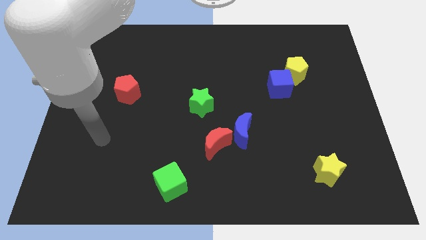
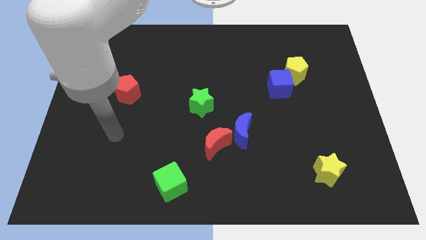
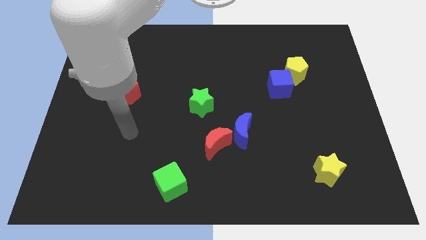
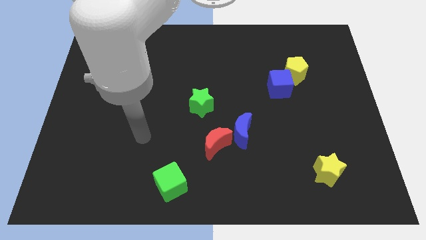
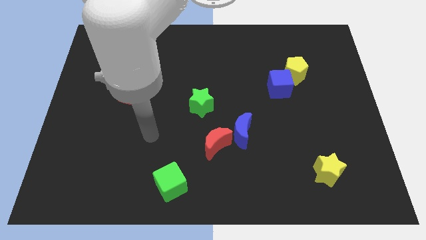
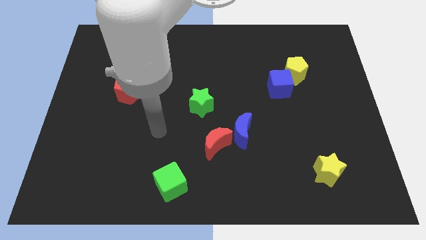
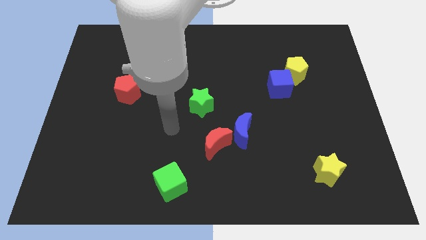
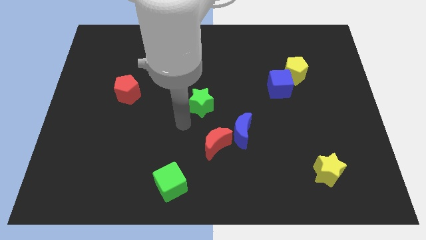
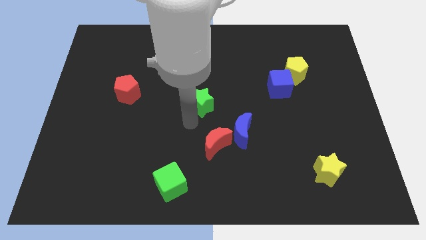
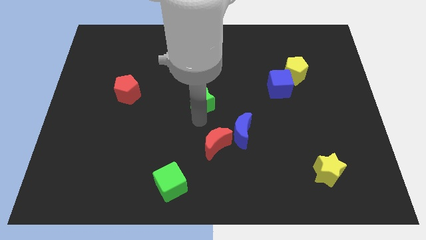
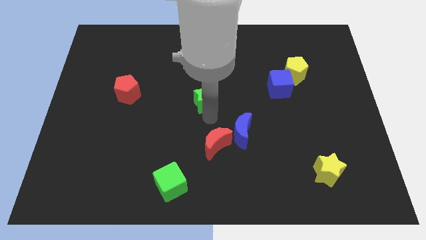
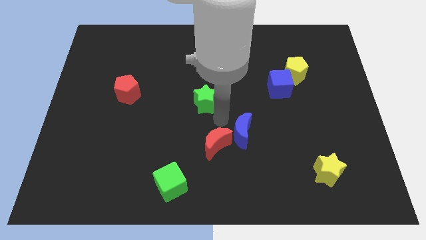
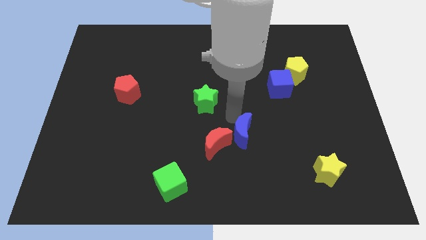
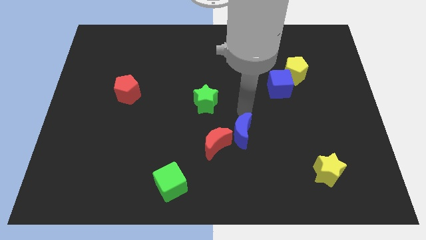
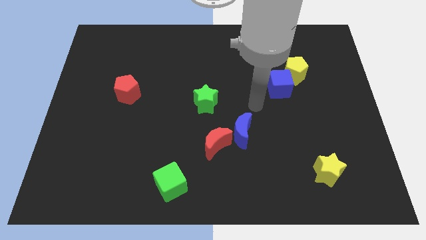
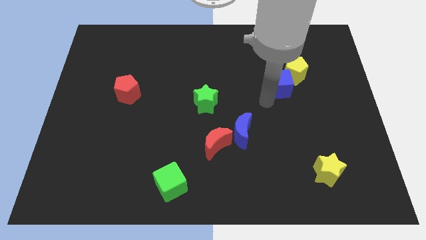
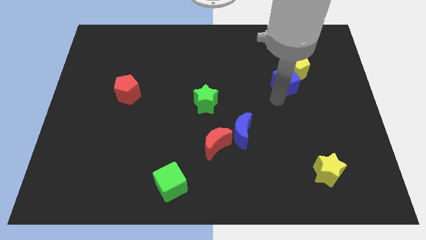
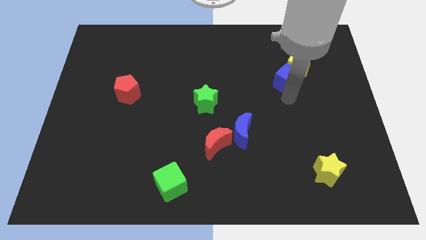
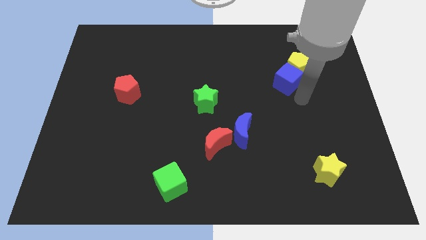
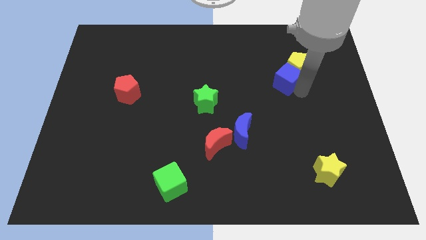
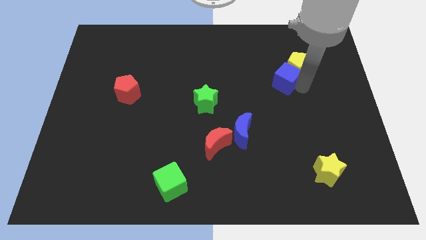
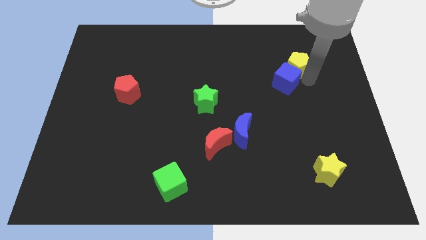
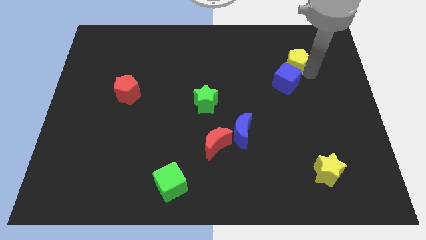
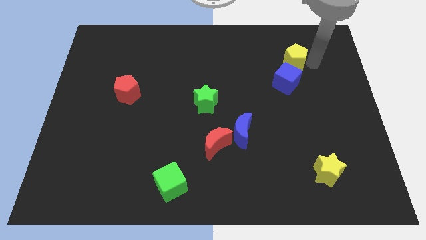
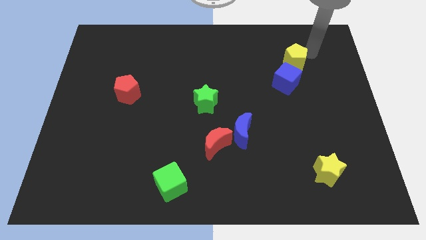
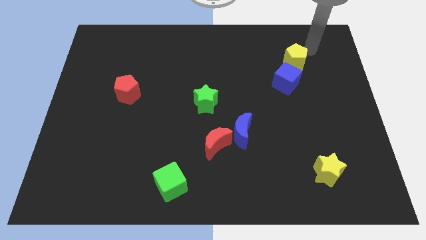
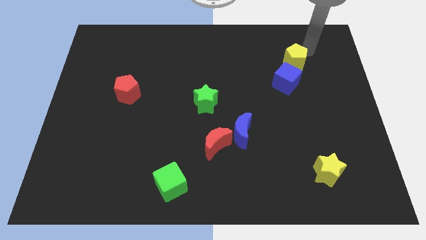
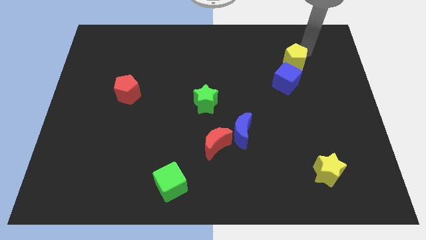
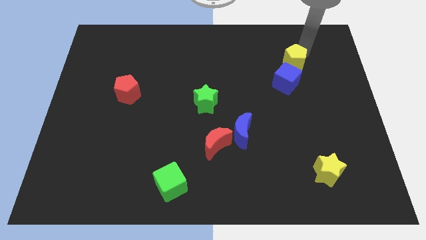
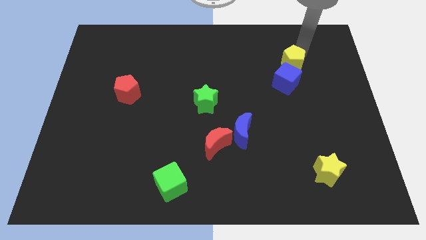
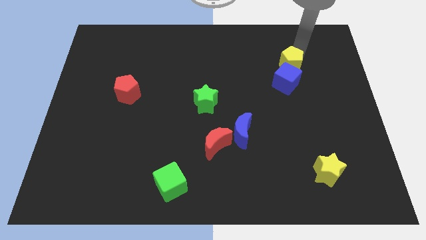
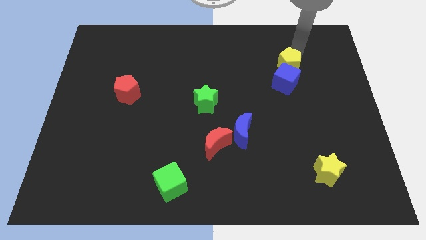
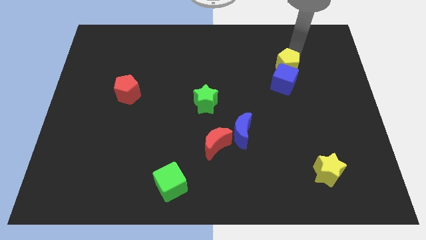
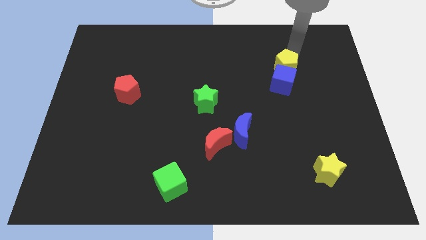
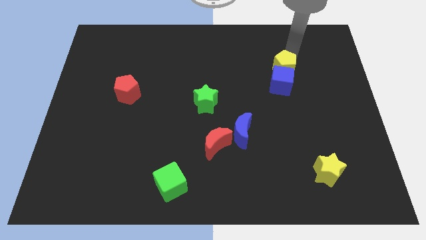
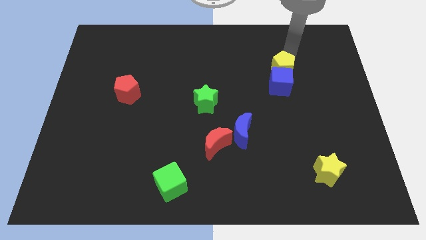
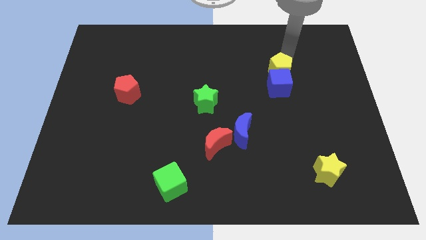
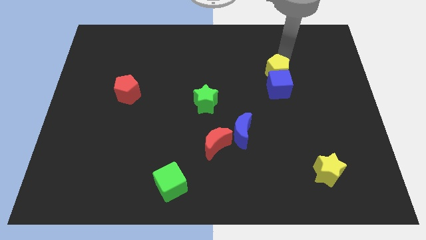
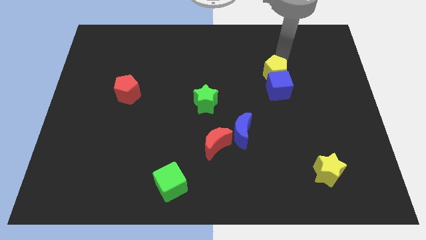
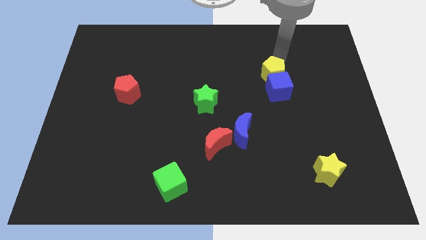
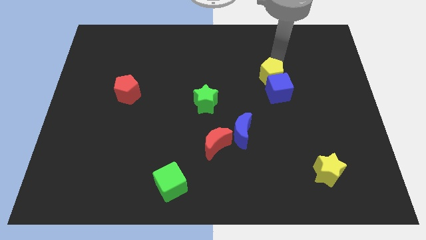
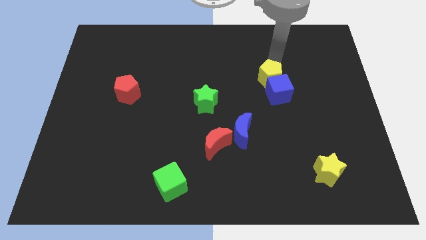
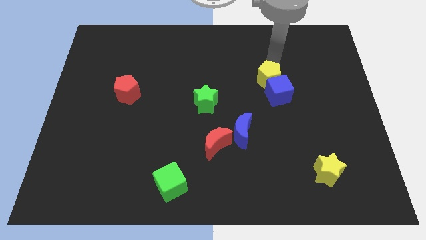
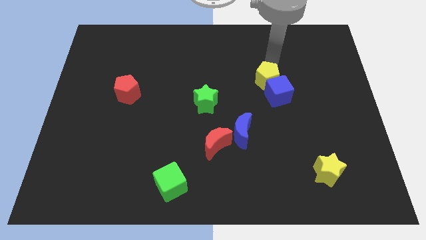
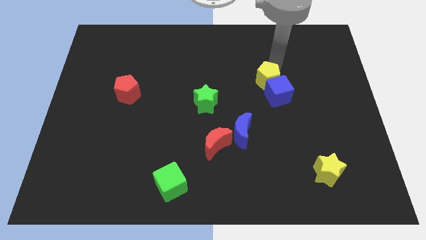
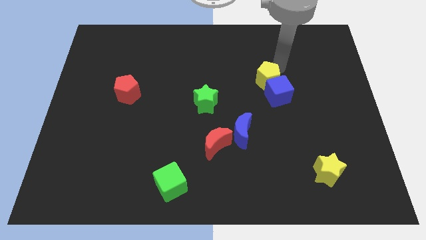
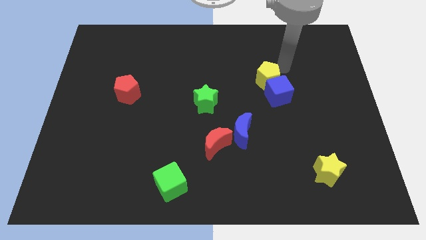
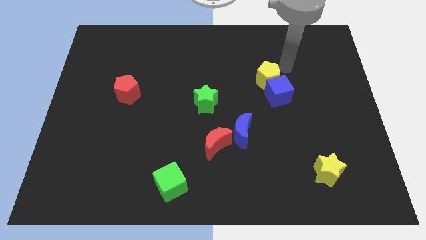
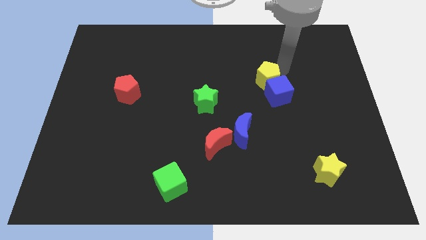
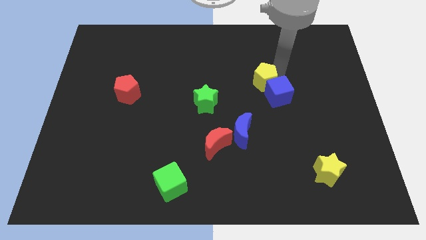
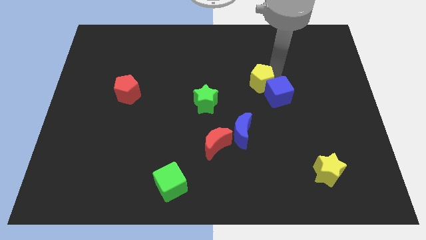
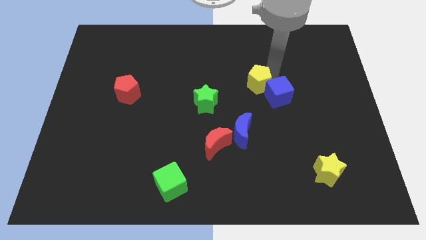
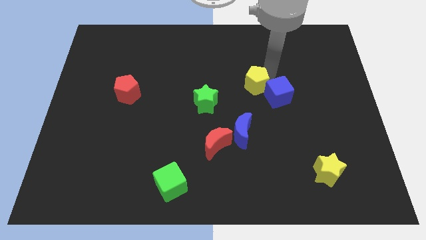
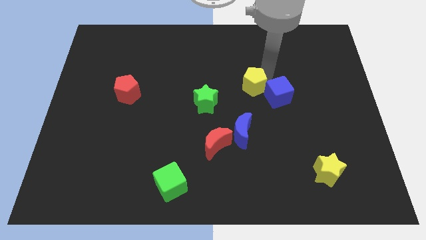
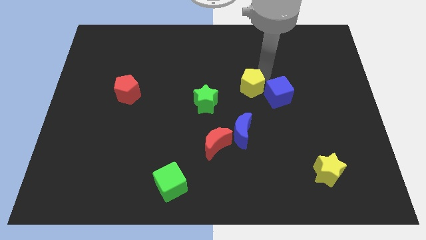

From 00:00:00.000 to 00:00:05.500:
push the yellow pentagon to the right side of the green star

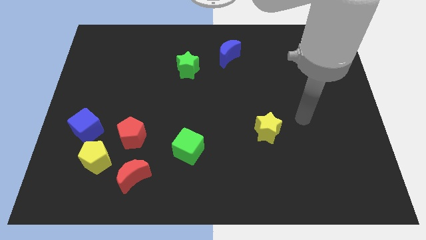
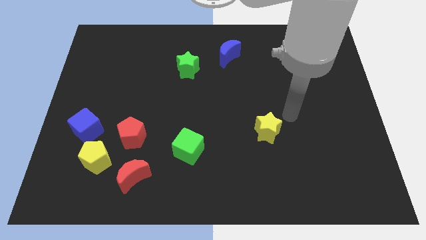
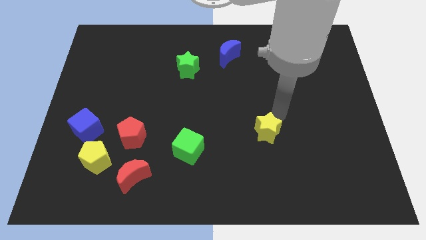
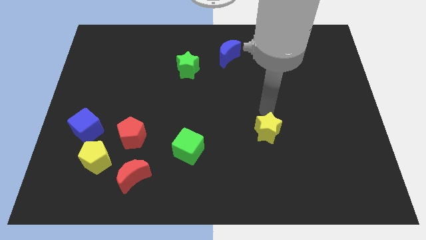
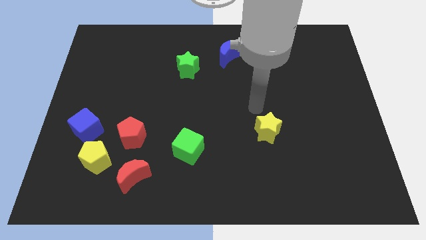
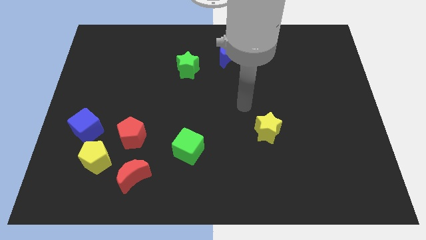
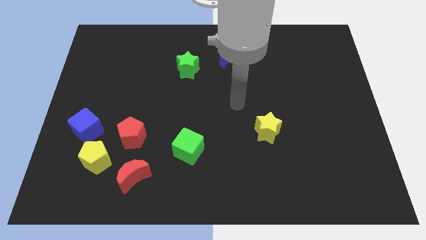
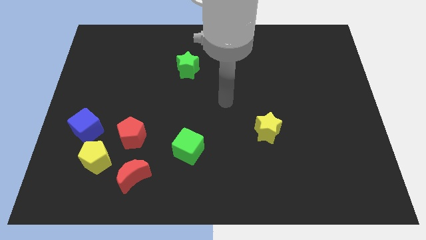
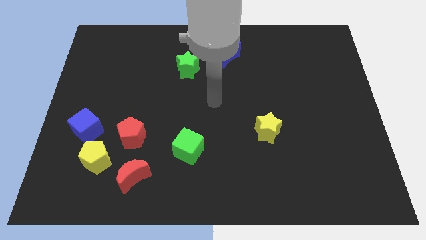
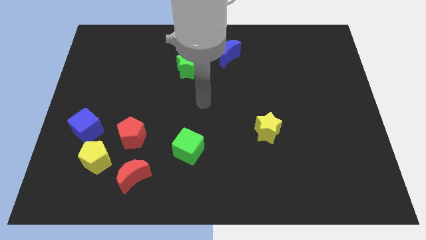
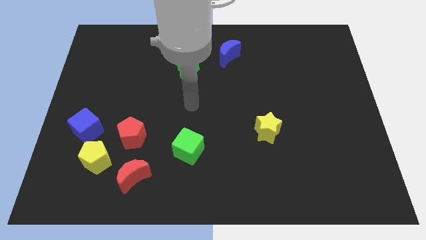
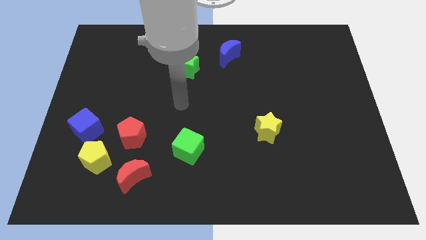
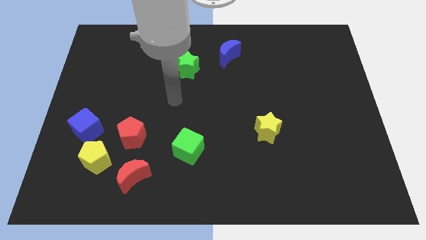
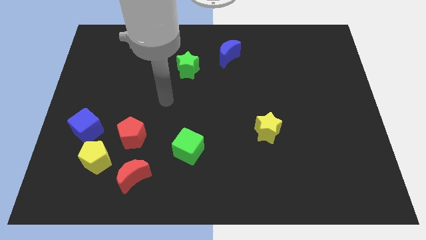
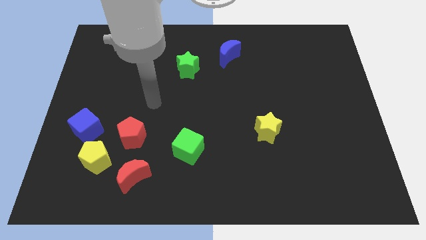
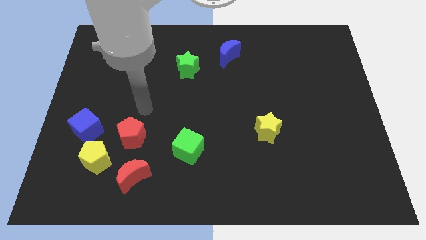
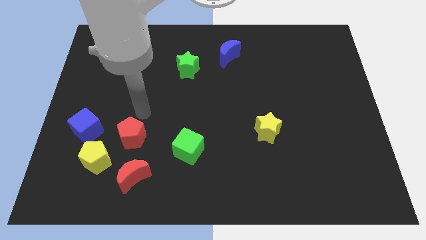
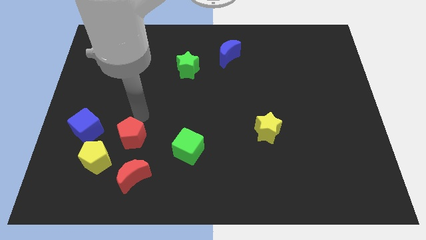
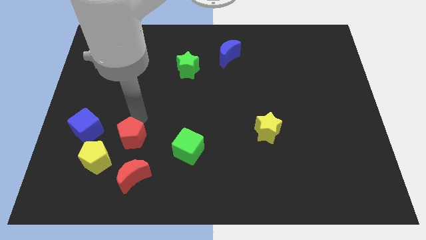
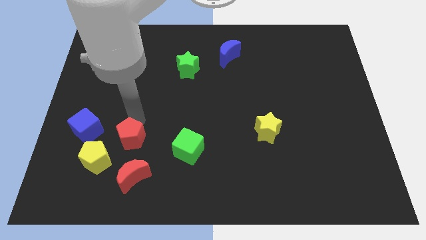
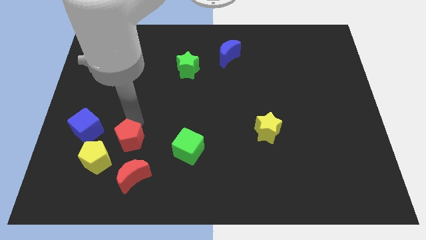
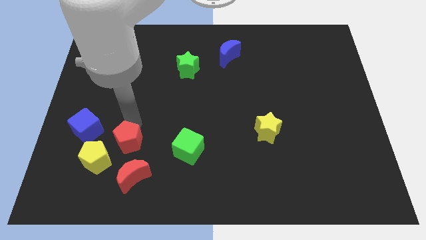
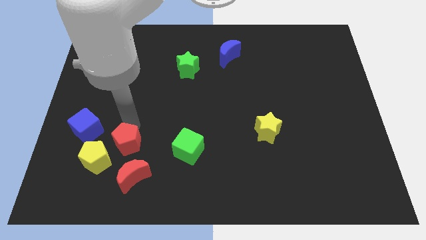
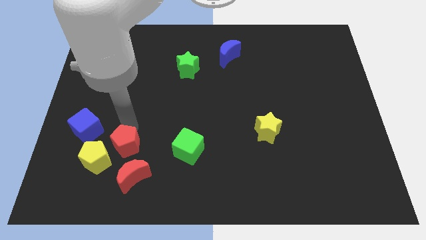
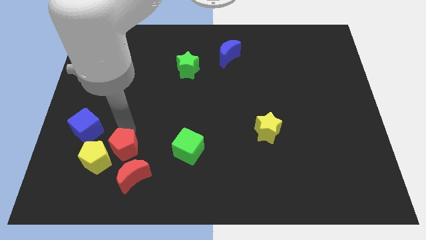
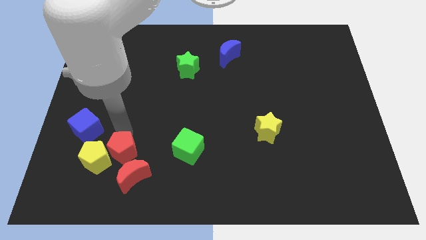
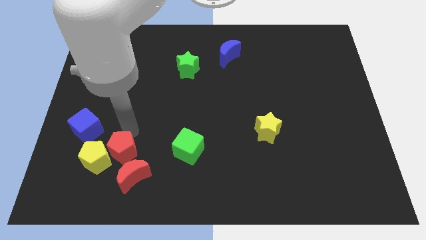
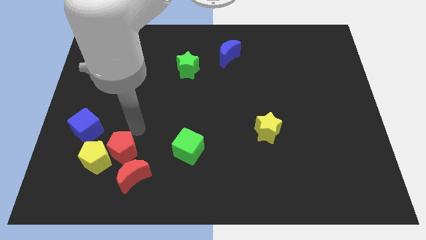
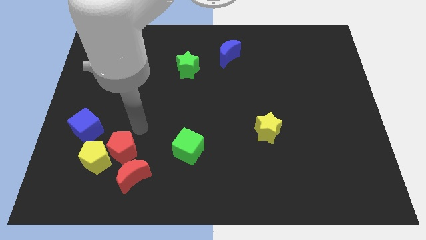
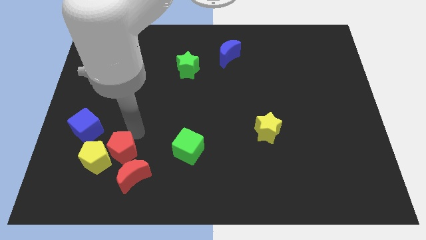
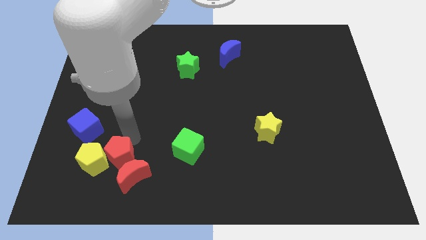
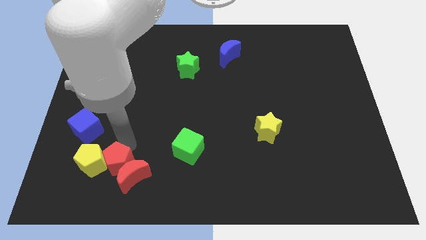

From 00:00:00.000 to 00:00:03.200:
put the red pentagon just left of the red moon
